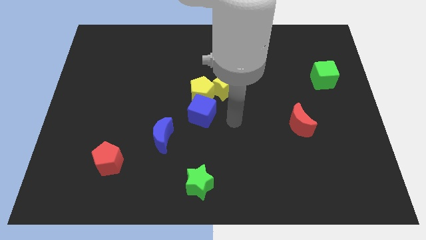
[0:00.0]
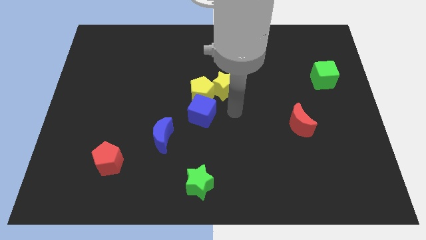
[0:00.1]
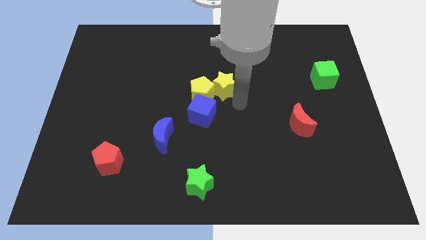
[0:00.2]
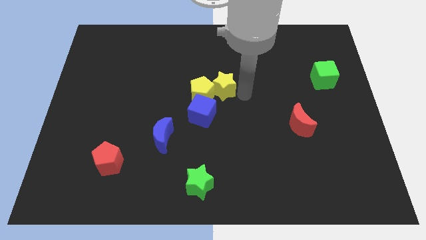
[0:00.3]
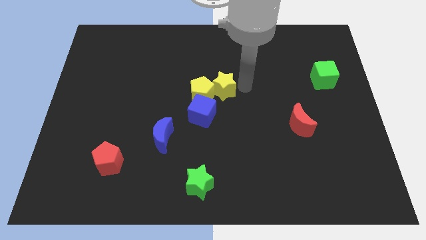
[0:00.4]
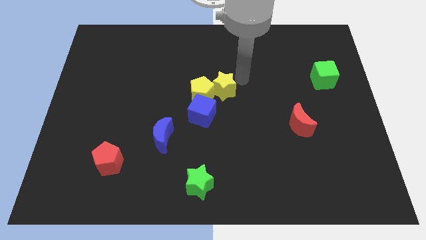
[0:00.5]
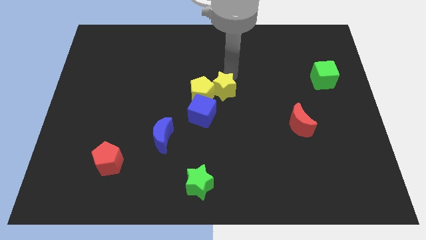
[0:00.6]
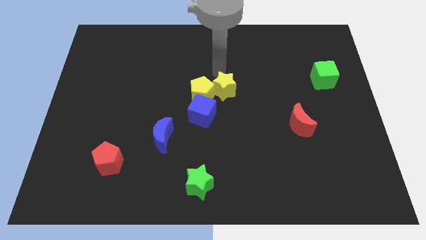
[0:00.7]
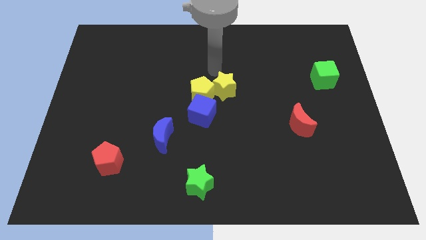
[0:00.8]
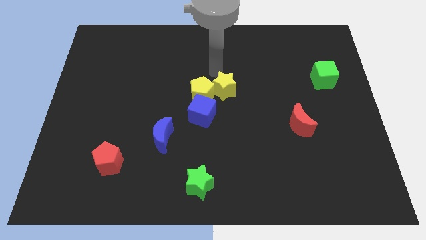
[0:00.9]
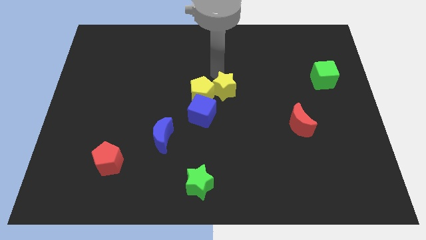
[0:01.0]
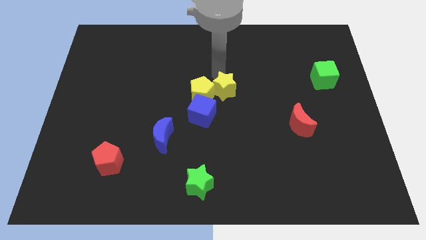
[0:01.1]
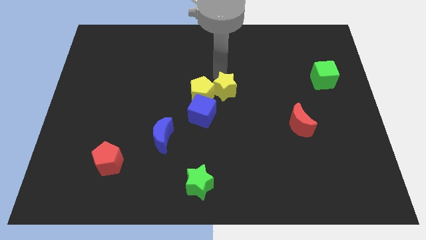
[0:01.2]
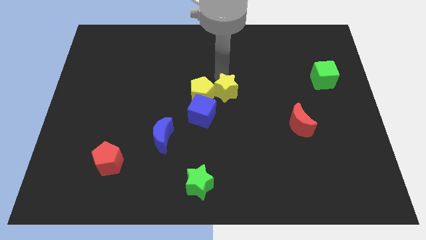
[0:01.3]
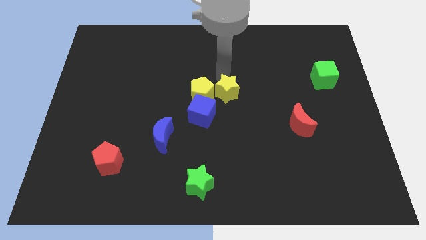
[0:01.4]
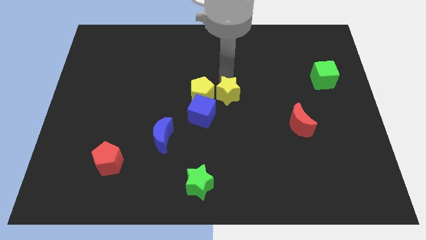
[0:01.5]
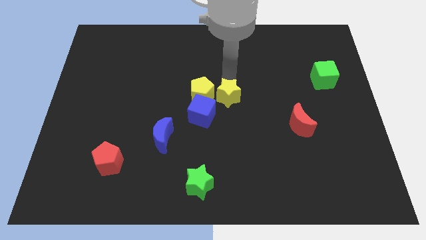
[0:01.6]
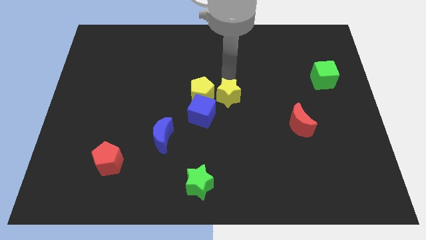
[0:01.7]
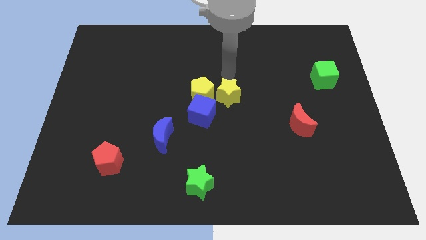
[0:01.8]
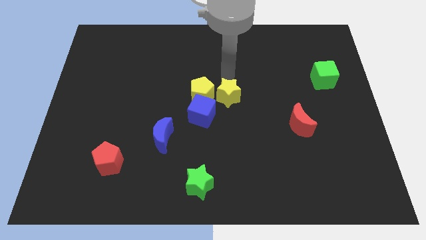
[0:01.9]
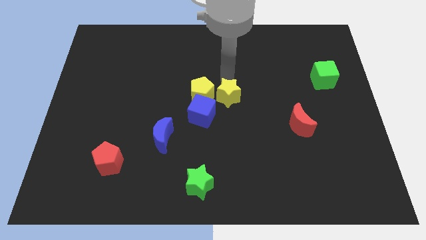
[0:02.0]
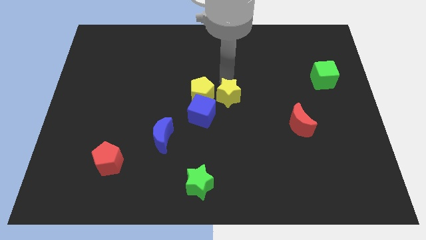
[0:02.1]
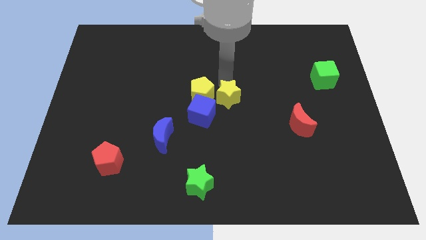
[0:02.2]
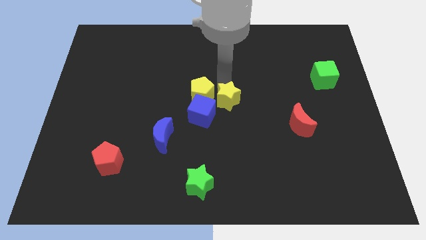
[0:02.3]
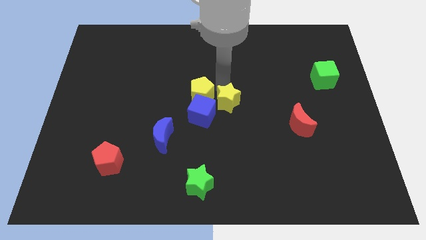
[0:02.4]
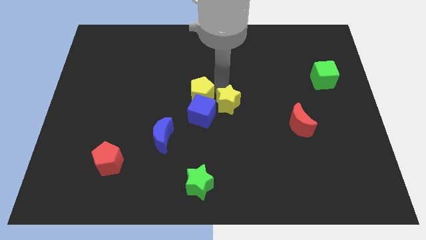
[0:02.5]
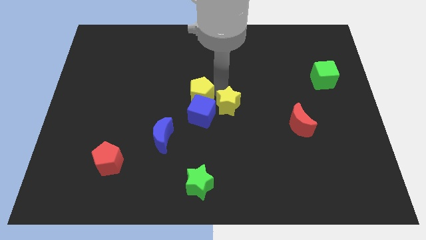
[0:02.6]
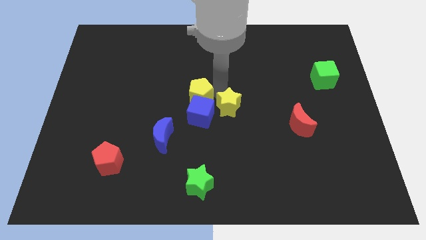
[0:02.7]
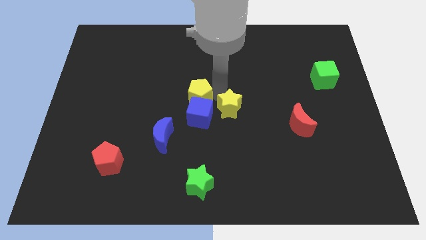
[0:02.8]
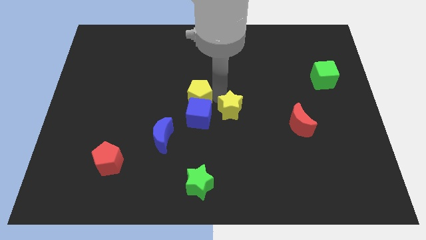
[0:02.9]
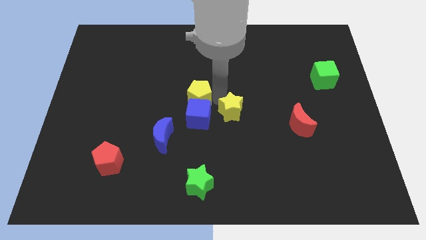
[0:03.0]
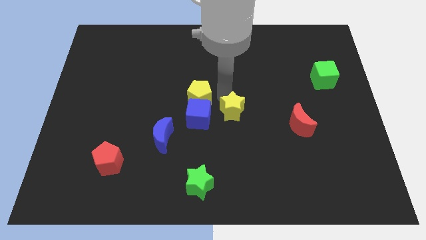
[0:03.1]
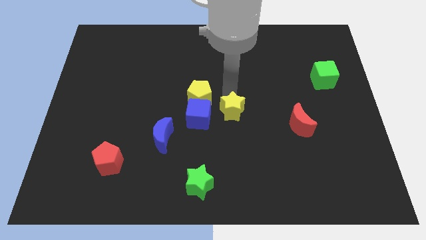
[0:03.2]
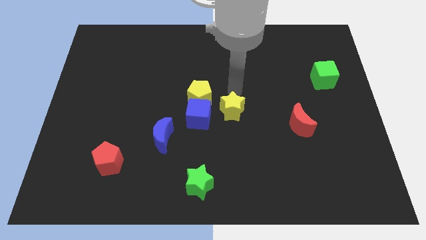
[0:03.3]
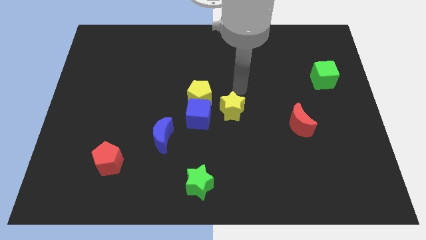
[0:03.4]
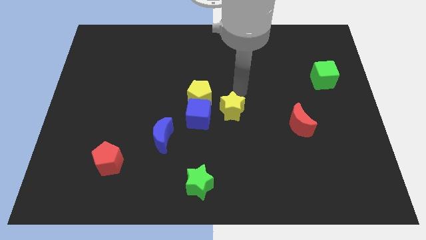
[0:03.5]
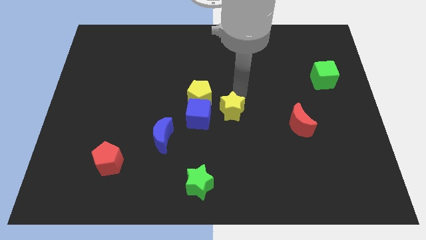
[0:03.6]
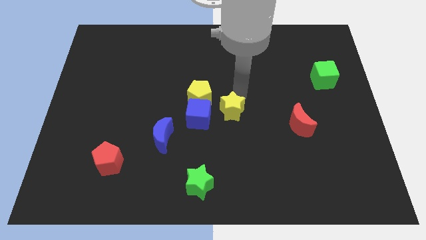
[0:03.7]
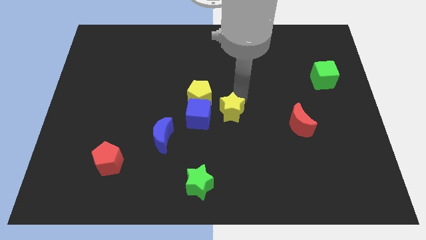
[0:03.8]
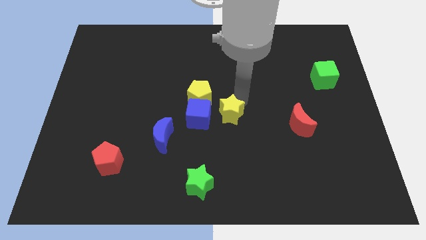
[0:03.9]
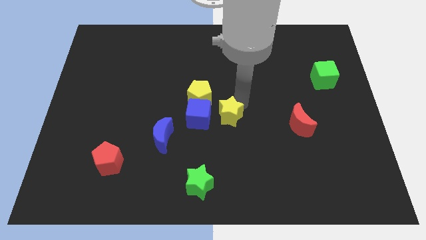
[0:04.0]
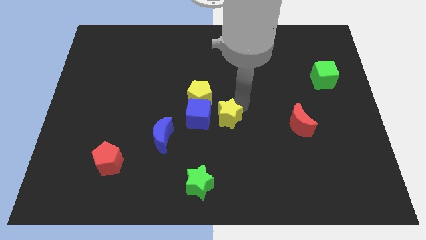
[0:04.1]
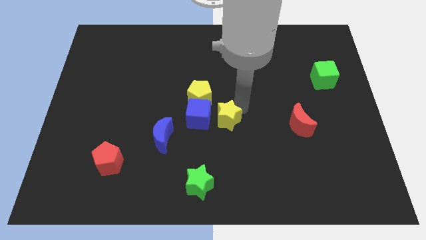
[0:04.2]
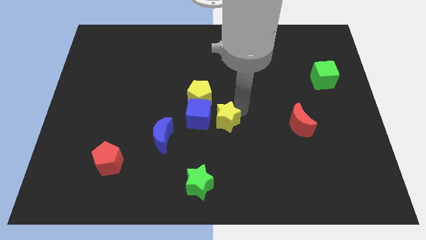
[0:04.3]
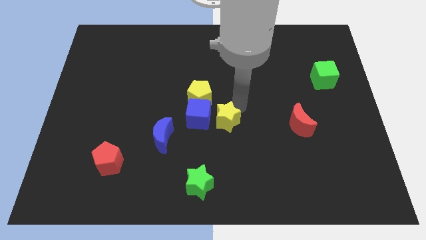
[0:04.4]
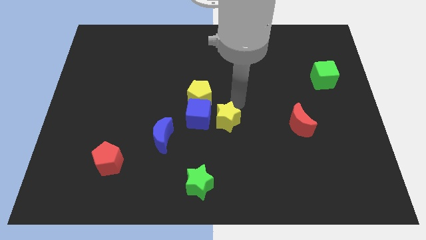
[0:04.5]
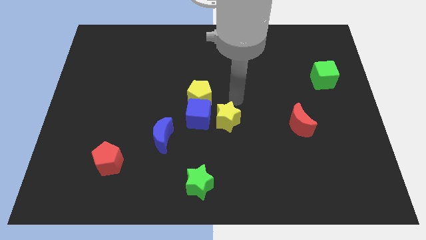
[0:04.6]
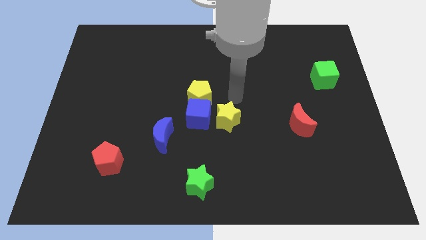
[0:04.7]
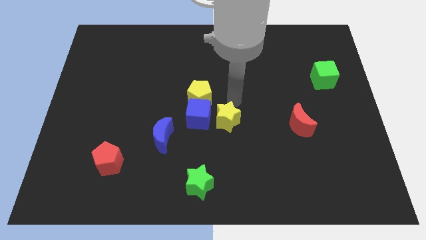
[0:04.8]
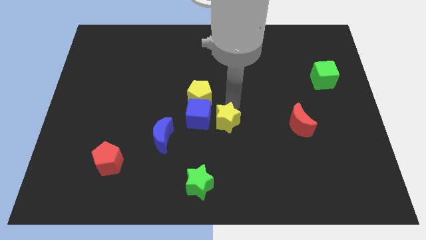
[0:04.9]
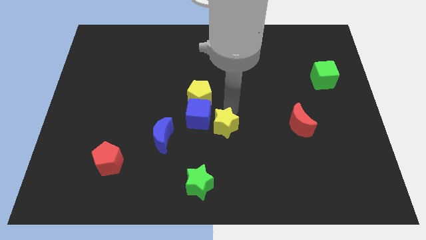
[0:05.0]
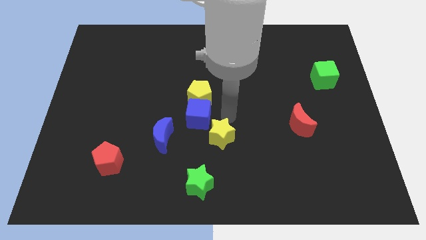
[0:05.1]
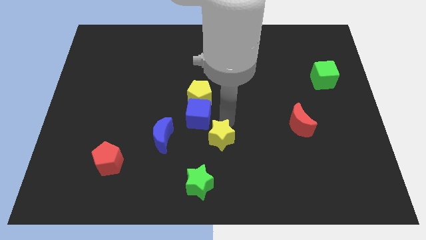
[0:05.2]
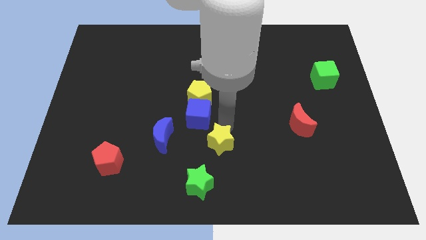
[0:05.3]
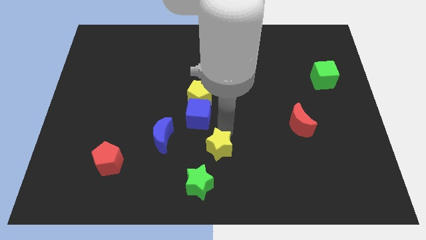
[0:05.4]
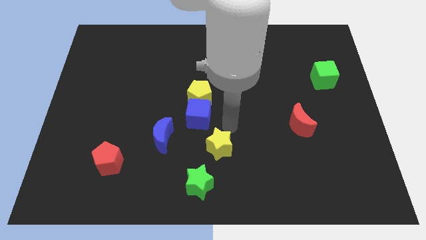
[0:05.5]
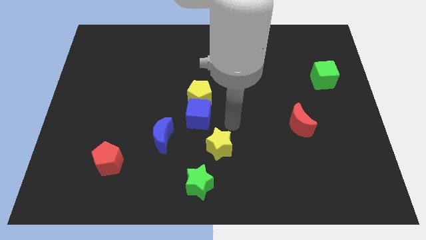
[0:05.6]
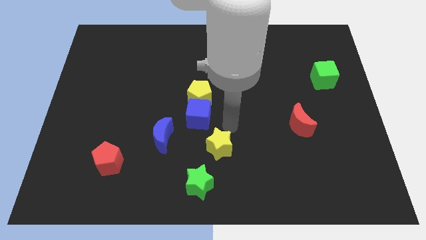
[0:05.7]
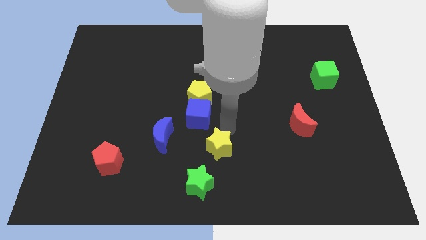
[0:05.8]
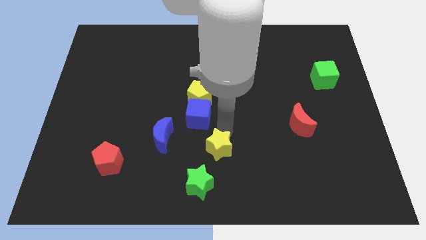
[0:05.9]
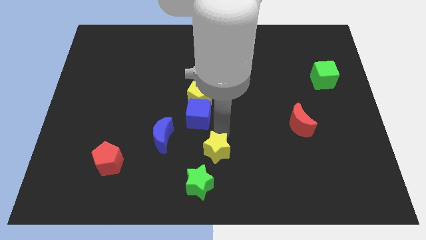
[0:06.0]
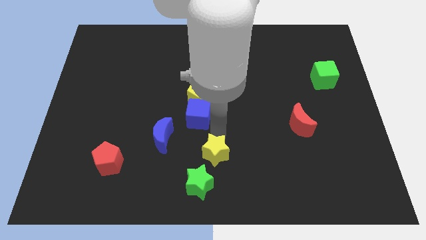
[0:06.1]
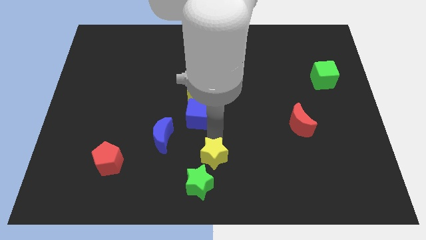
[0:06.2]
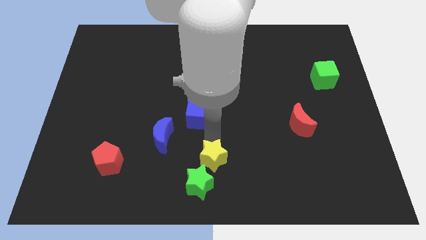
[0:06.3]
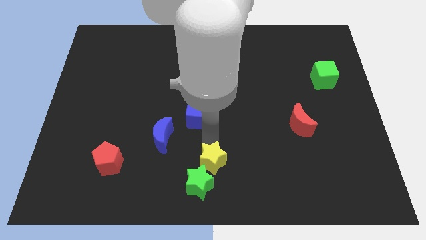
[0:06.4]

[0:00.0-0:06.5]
move the yellow star to the green star

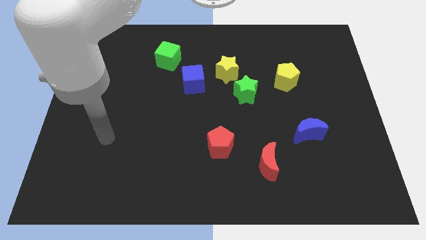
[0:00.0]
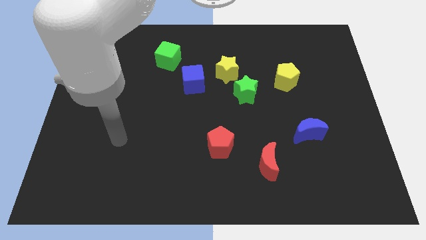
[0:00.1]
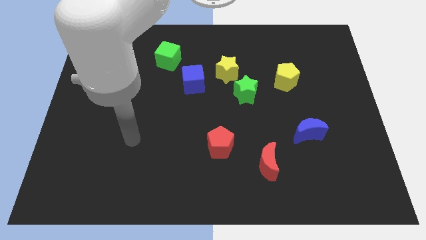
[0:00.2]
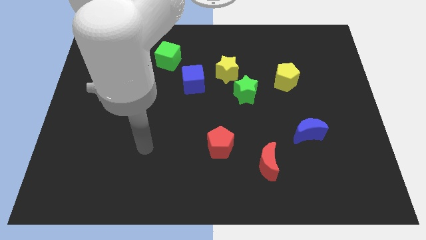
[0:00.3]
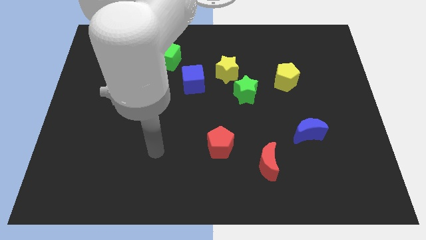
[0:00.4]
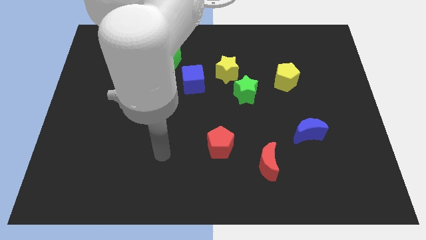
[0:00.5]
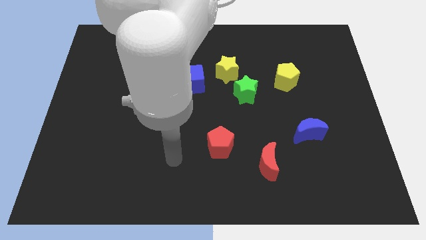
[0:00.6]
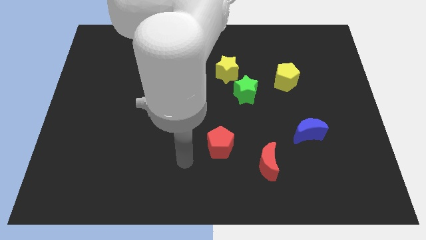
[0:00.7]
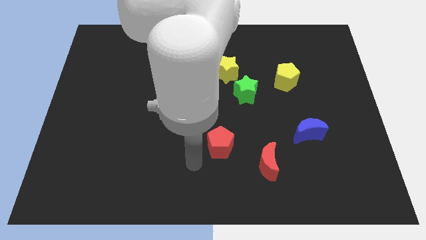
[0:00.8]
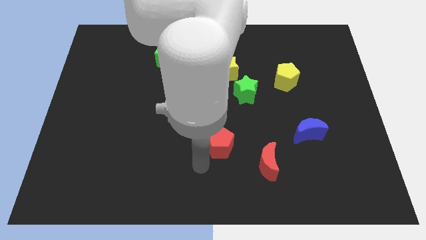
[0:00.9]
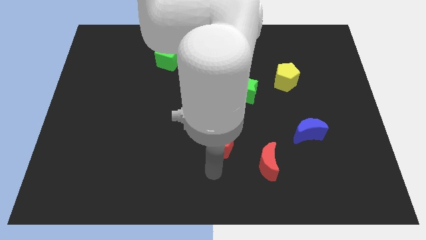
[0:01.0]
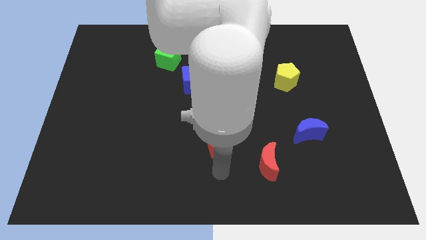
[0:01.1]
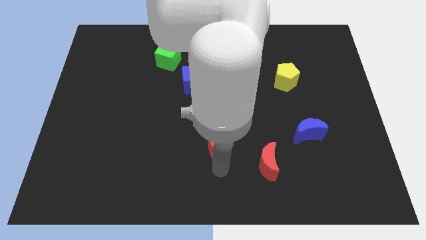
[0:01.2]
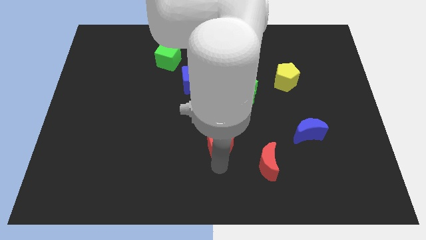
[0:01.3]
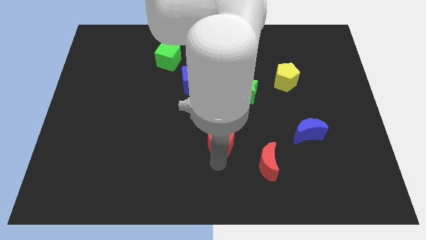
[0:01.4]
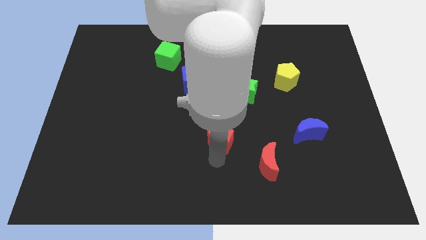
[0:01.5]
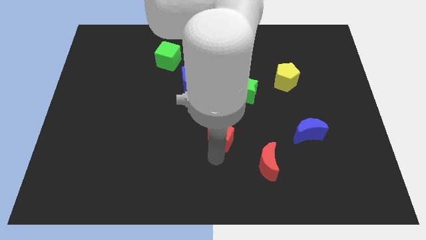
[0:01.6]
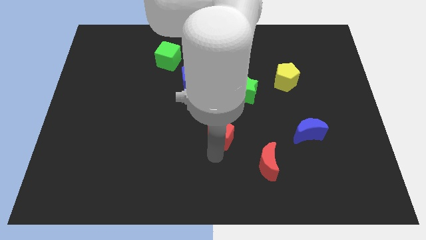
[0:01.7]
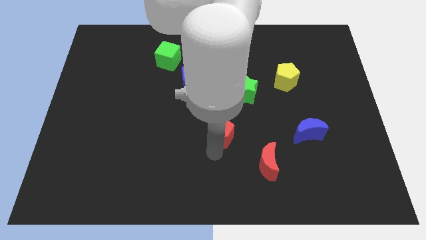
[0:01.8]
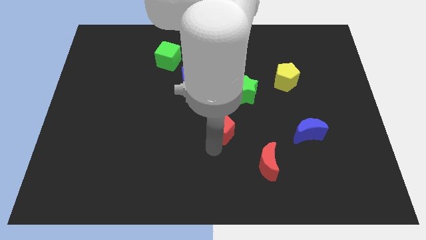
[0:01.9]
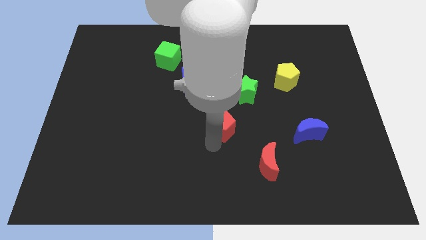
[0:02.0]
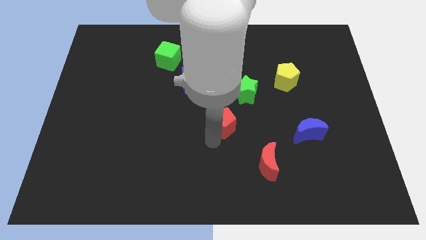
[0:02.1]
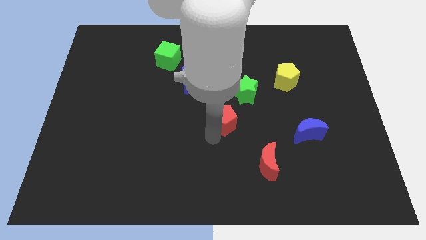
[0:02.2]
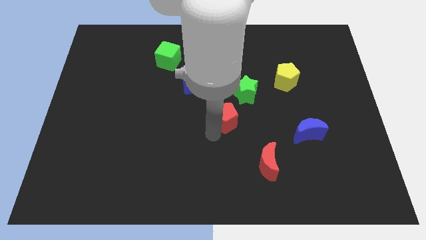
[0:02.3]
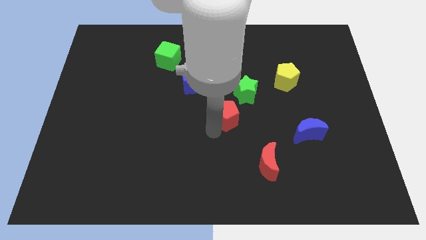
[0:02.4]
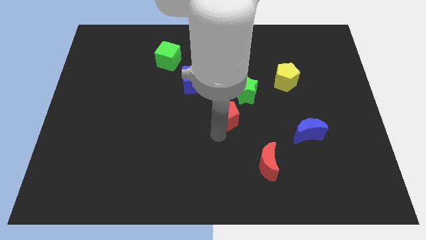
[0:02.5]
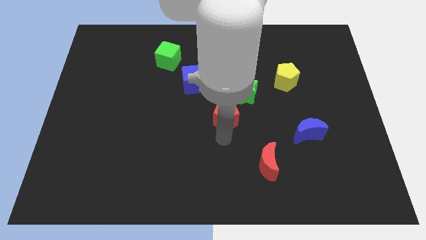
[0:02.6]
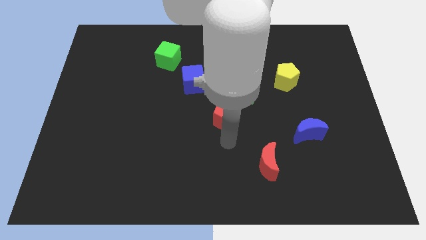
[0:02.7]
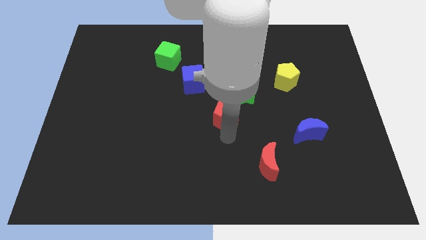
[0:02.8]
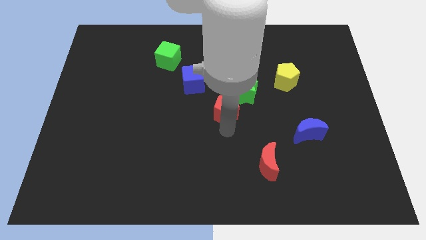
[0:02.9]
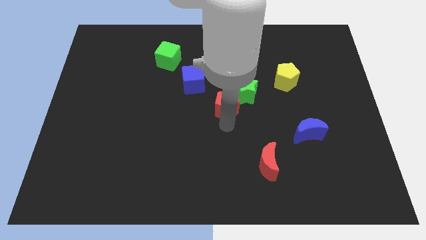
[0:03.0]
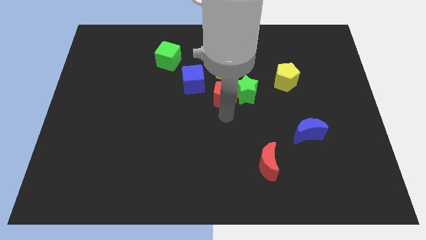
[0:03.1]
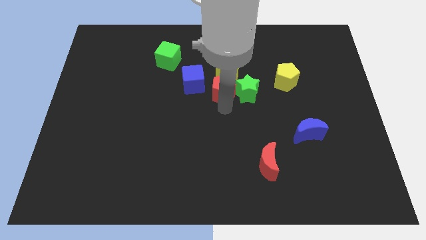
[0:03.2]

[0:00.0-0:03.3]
slide the red pentagon towards the yellow star
